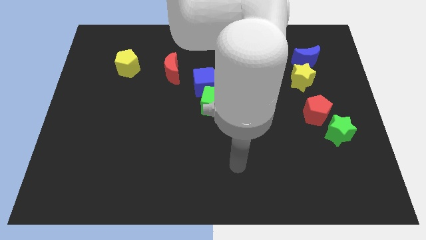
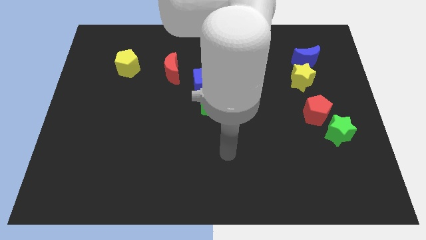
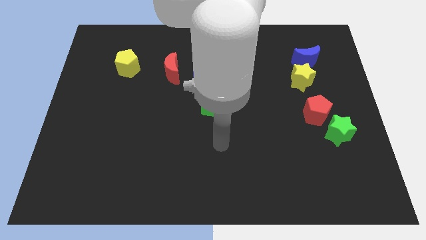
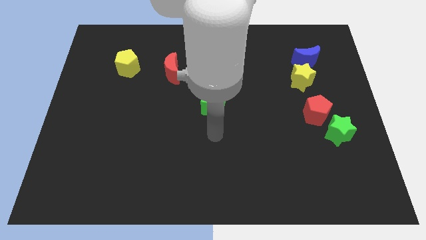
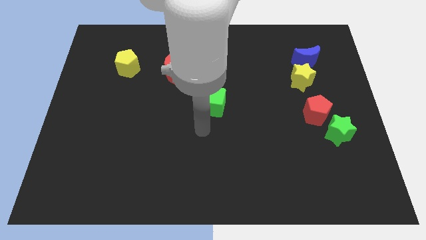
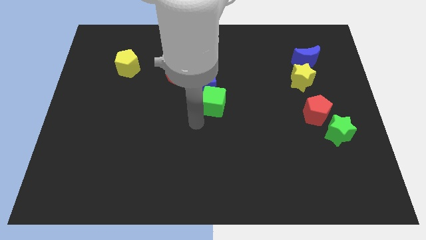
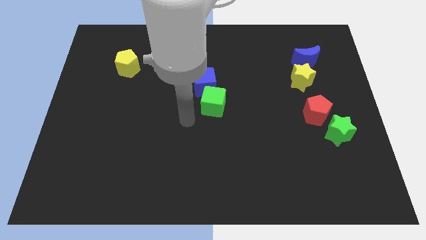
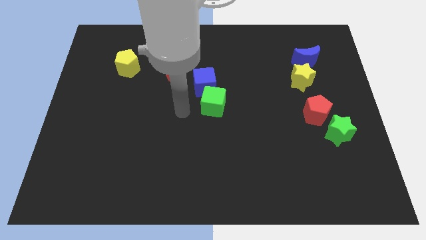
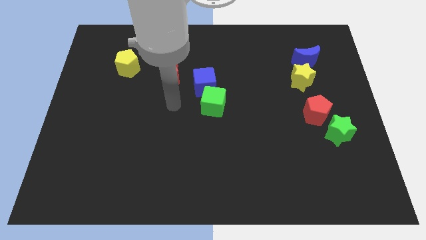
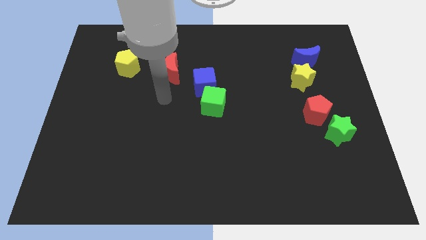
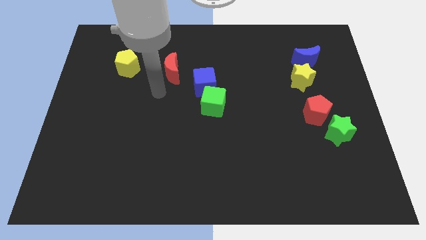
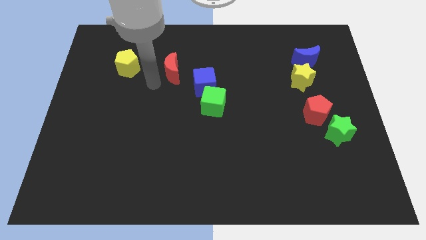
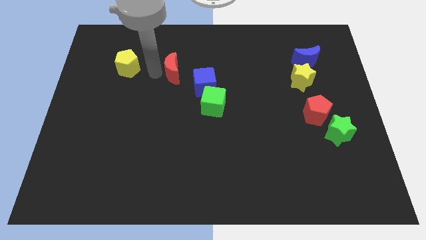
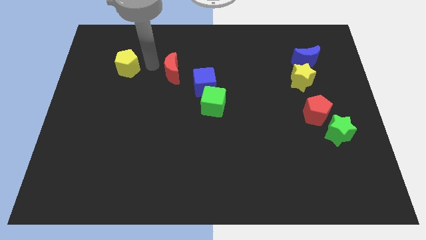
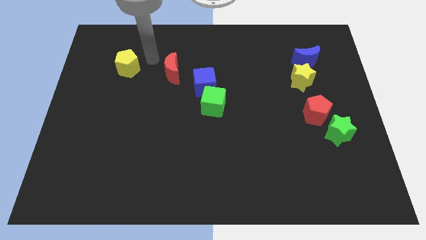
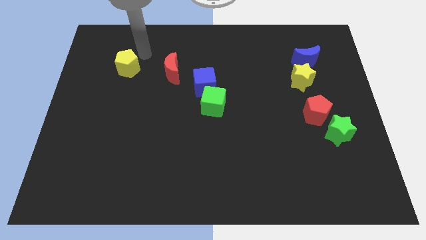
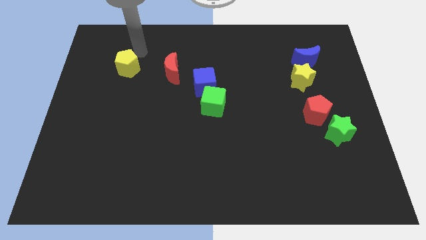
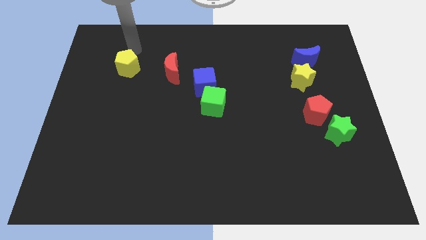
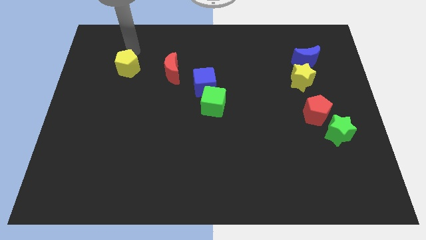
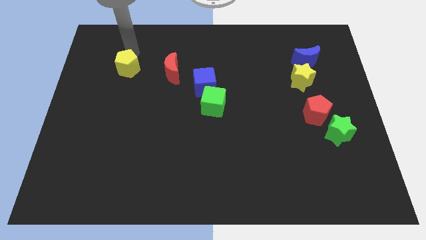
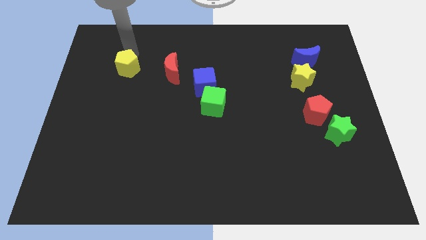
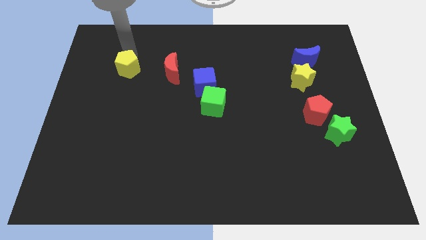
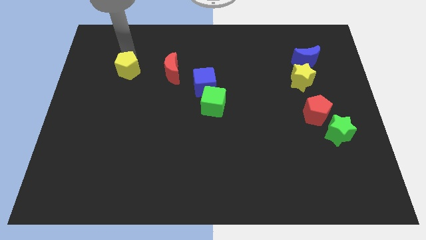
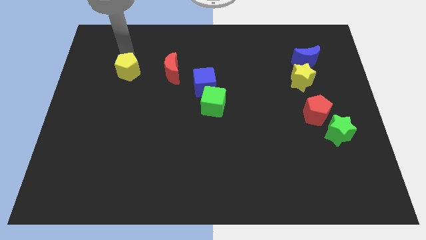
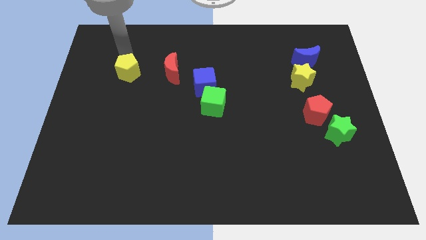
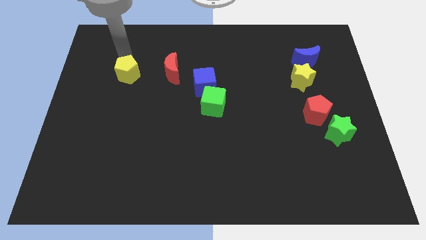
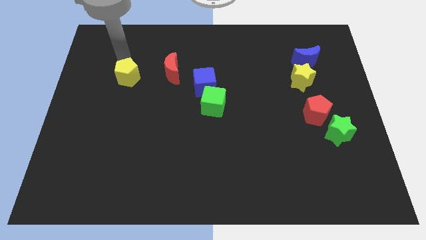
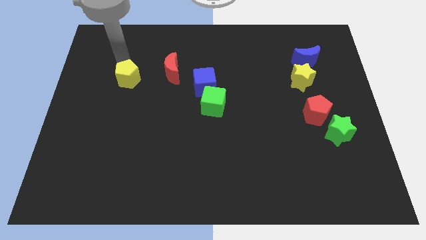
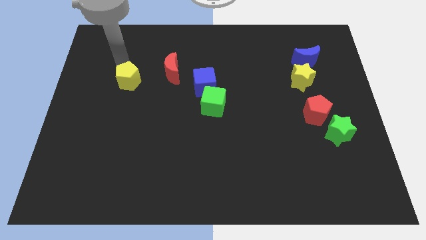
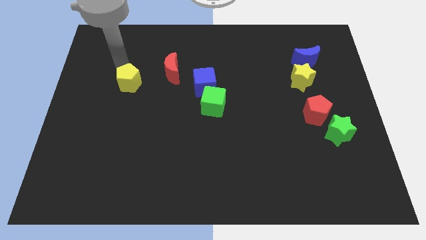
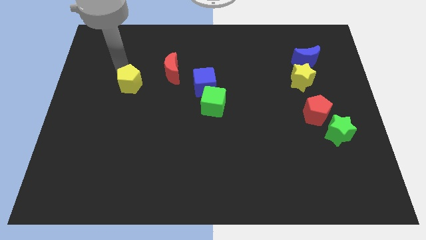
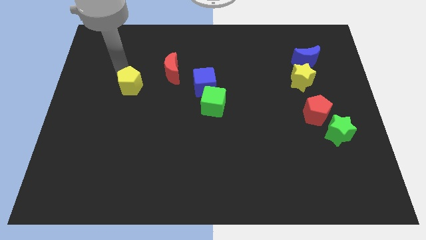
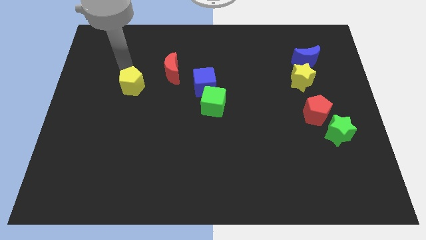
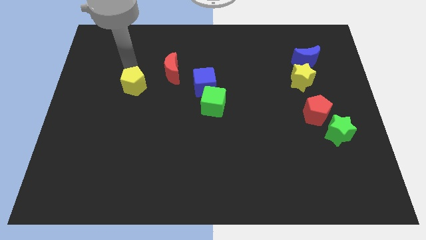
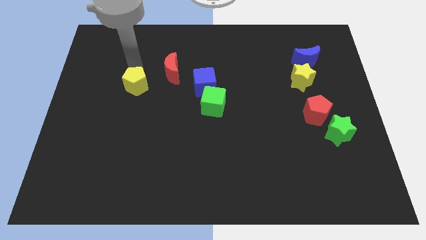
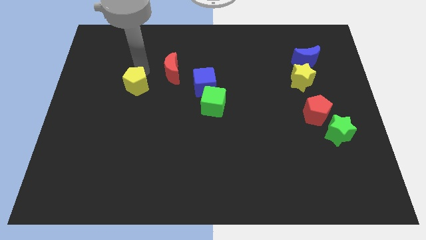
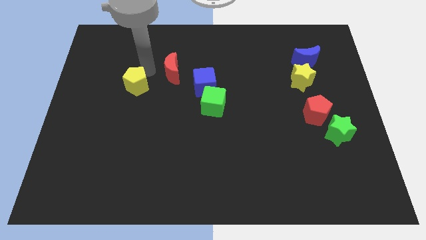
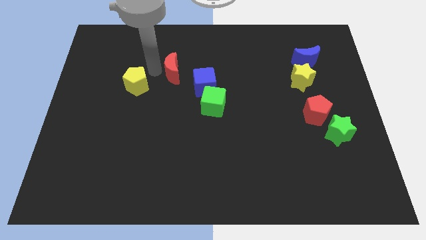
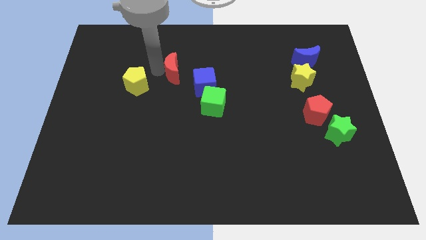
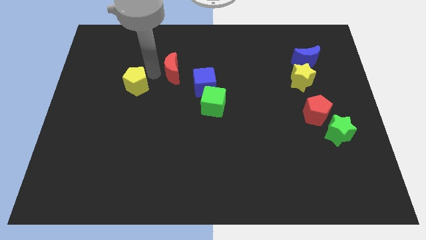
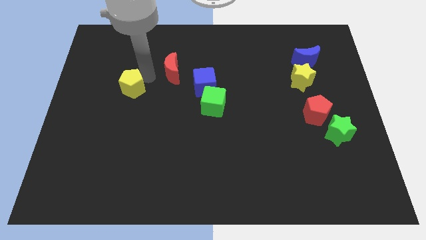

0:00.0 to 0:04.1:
slide the yellow pentagon downwards slightly

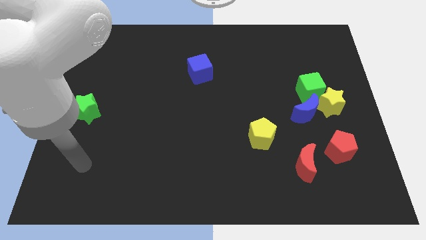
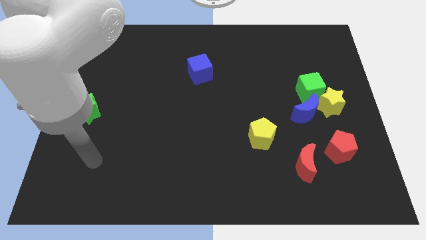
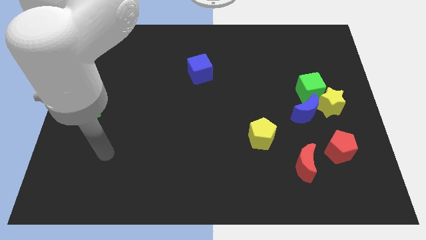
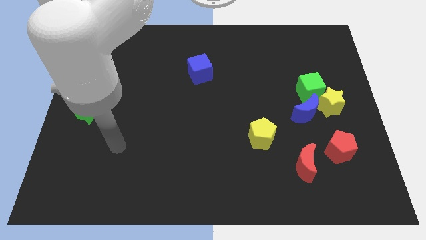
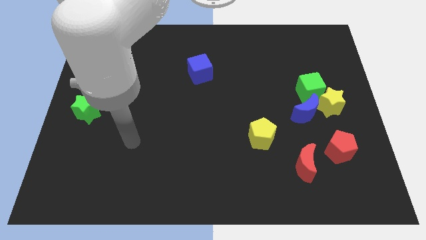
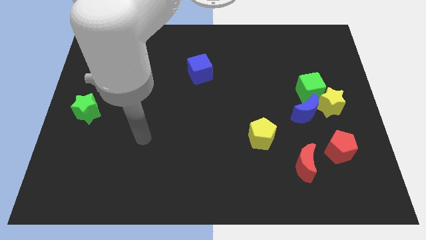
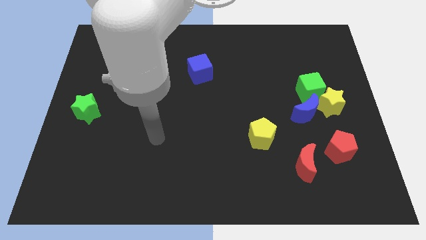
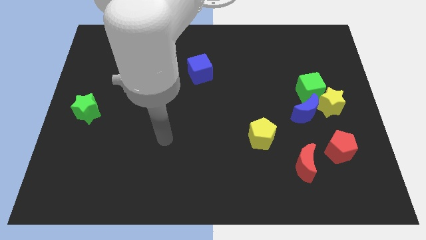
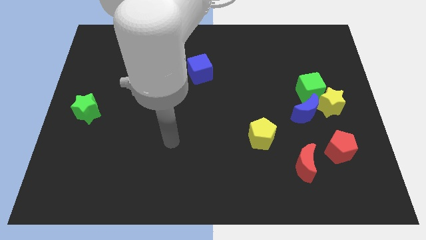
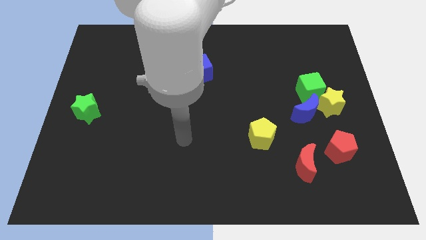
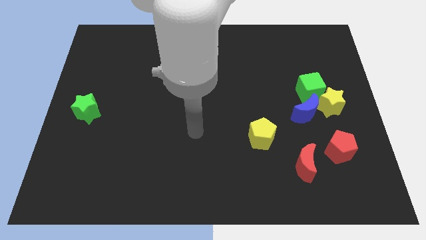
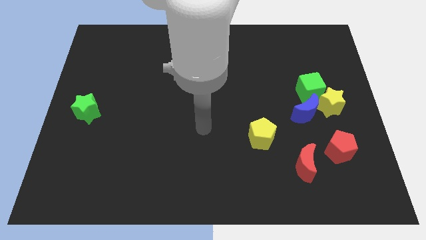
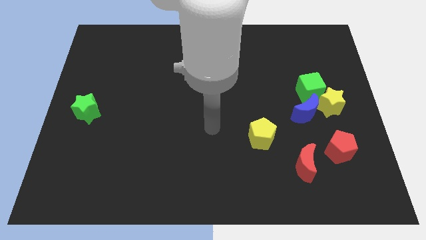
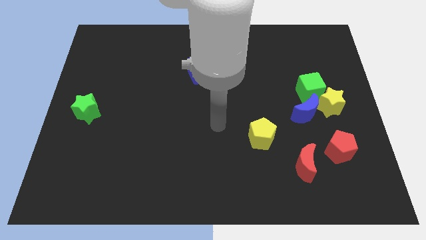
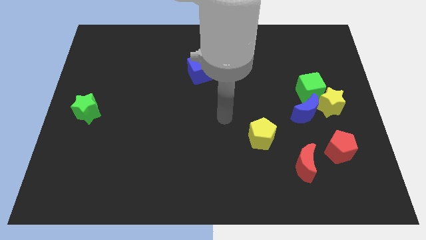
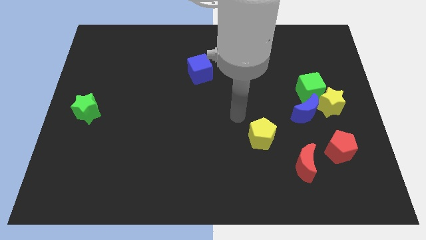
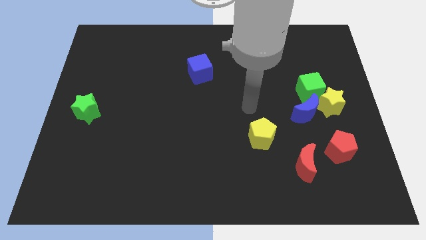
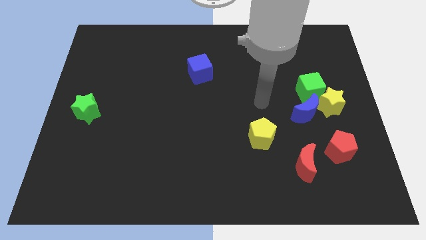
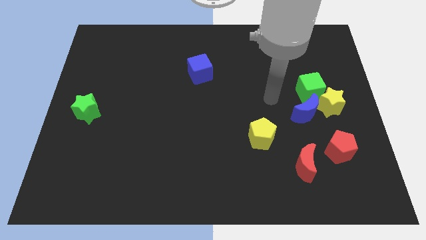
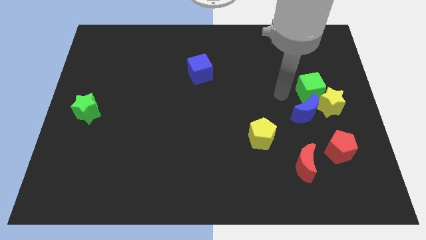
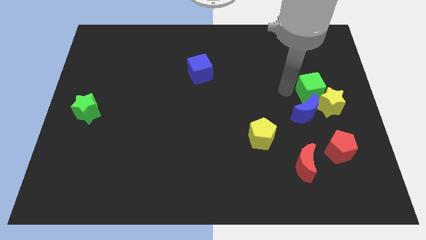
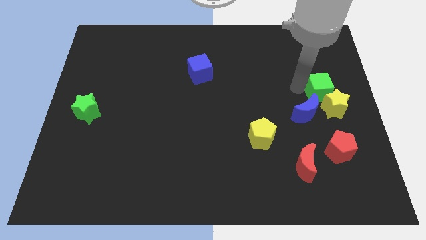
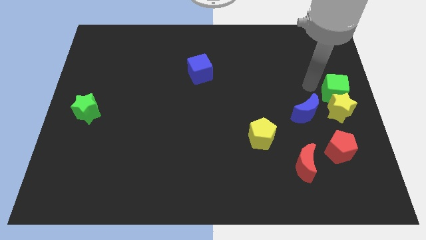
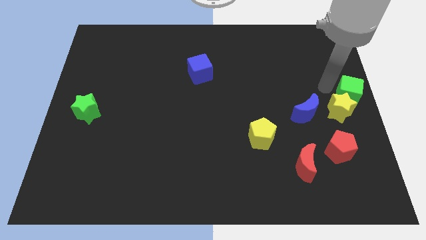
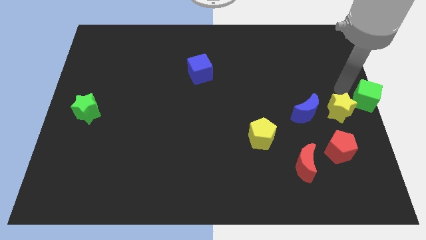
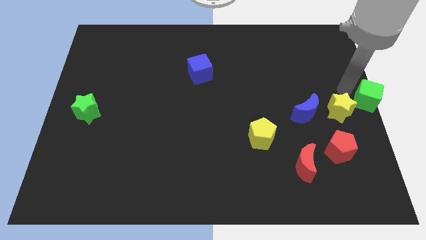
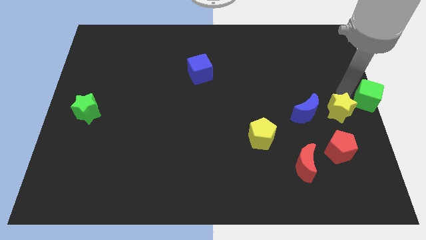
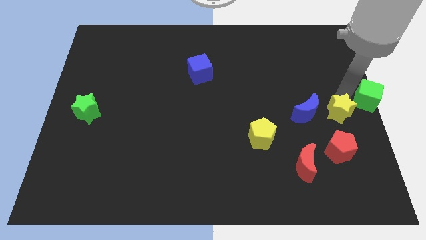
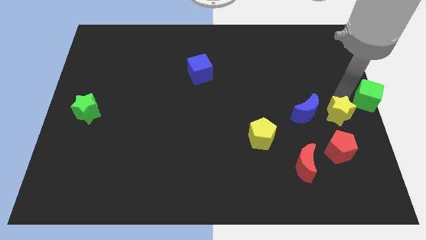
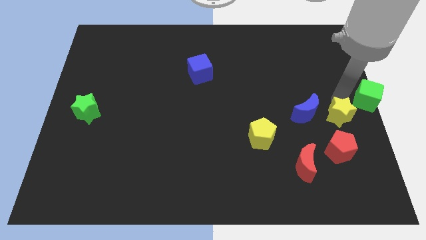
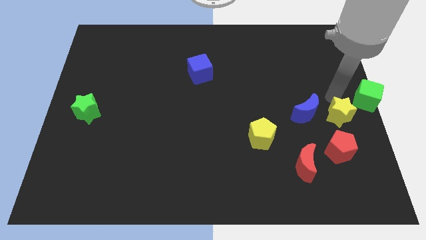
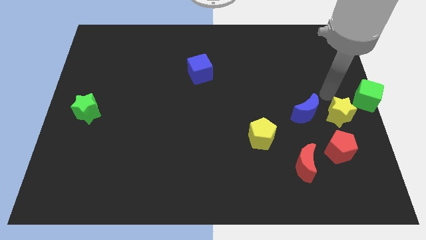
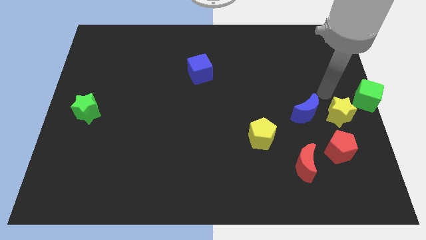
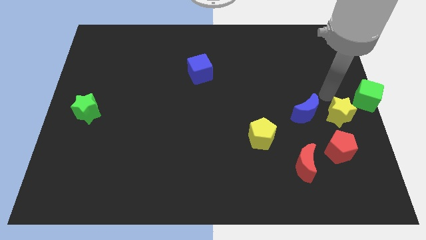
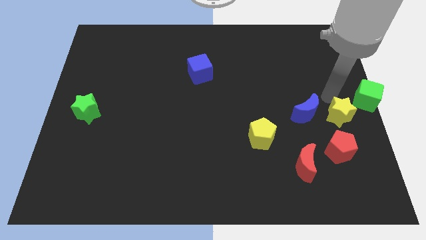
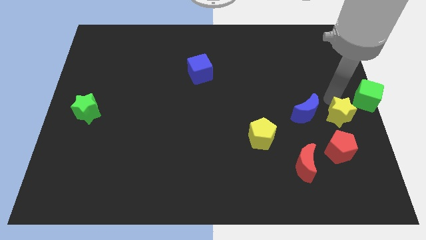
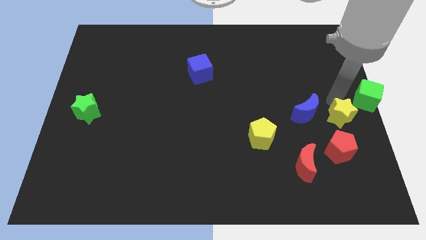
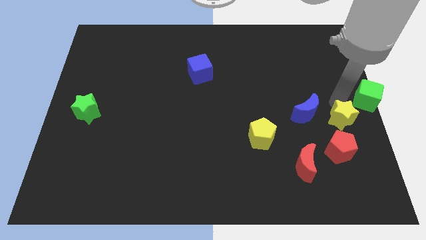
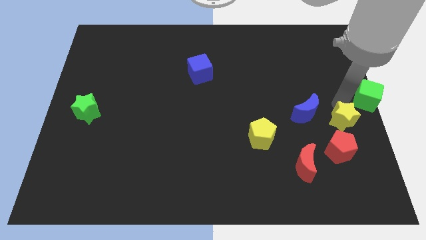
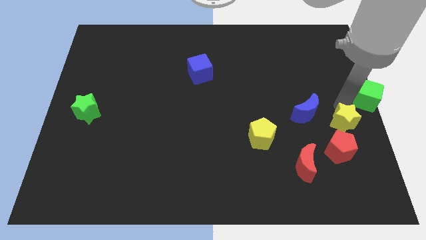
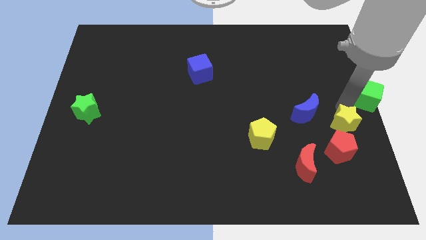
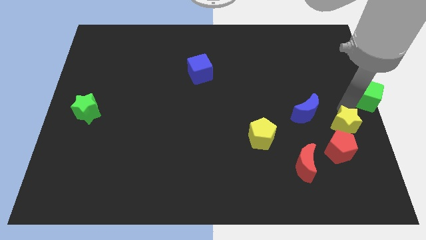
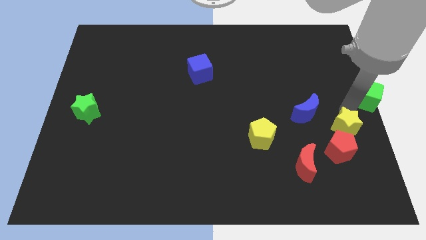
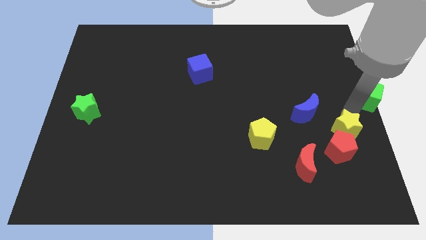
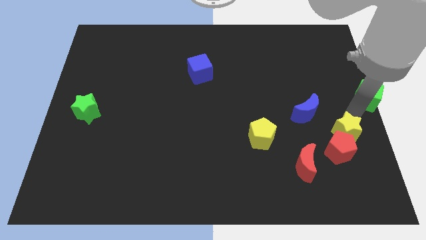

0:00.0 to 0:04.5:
move the yellow star slightly downwards
